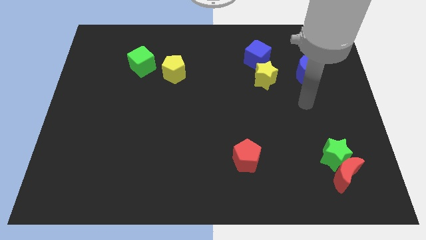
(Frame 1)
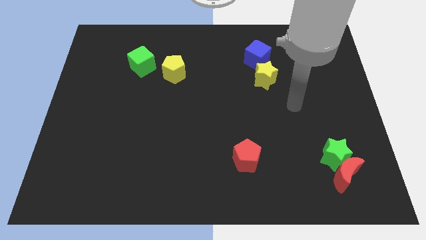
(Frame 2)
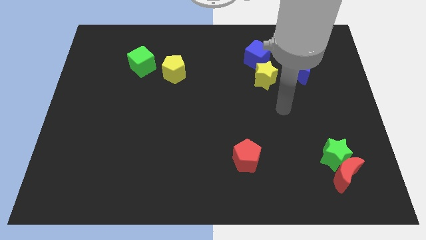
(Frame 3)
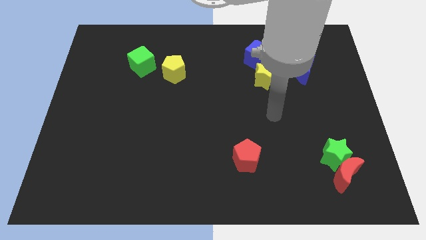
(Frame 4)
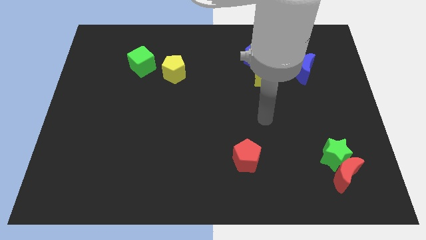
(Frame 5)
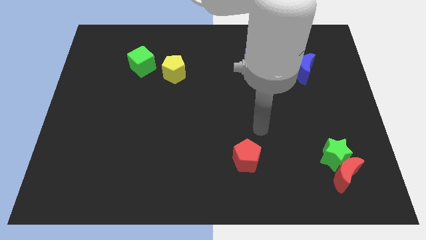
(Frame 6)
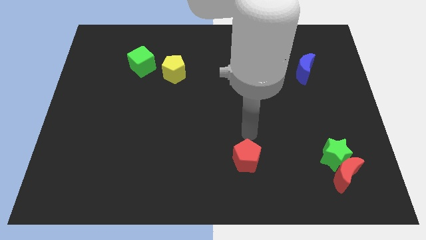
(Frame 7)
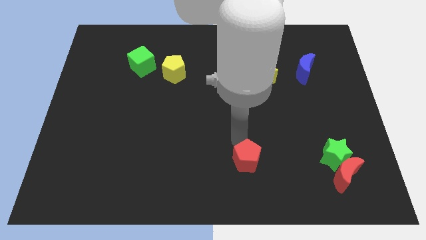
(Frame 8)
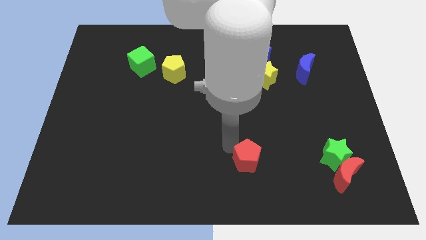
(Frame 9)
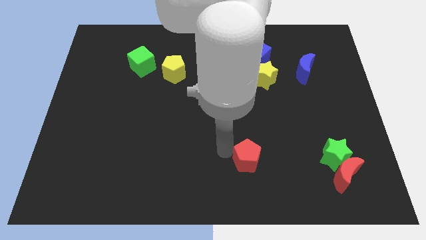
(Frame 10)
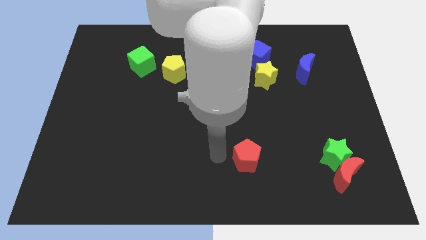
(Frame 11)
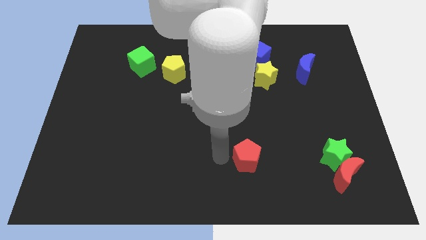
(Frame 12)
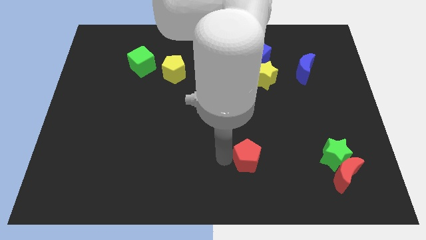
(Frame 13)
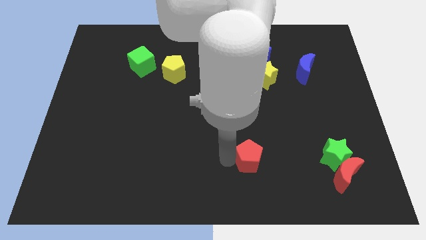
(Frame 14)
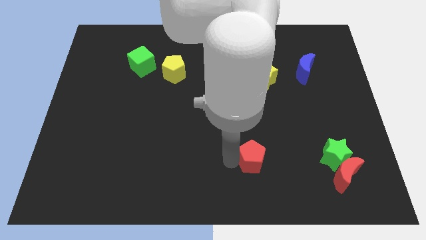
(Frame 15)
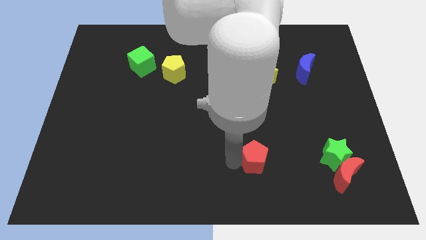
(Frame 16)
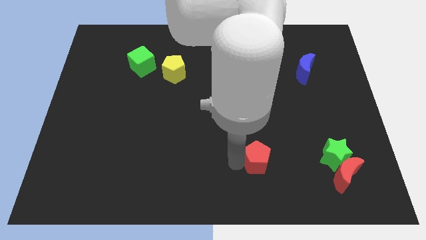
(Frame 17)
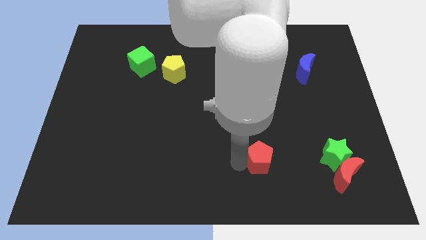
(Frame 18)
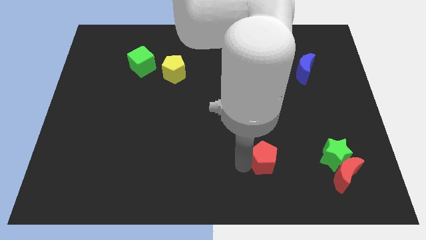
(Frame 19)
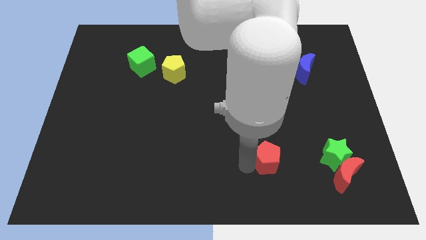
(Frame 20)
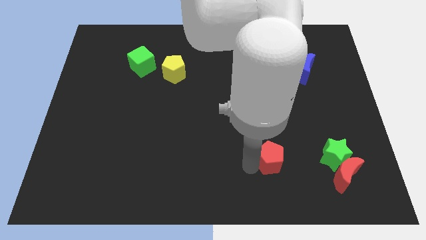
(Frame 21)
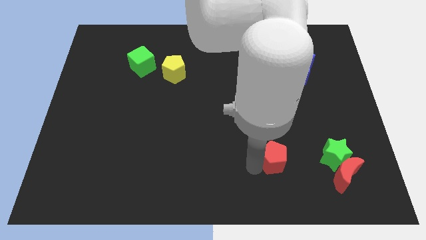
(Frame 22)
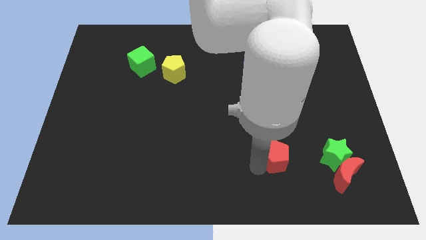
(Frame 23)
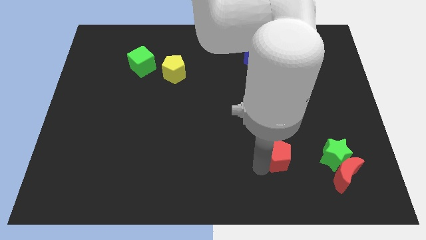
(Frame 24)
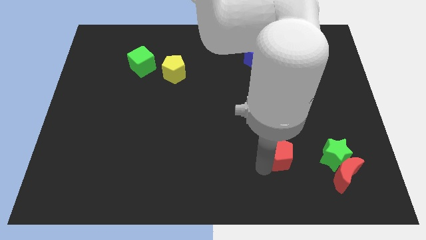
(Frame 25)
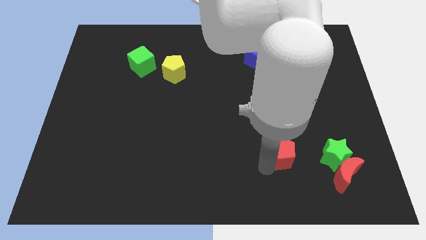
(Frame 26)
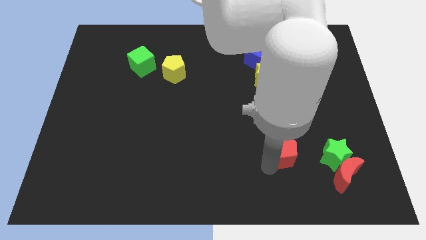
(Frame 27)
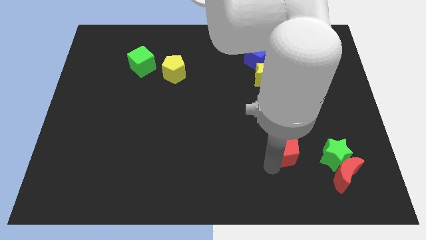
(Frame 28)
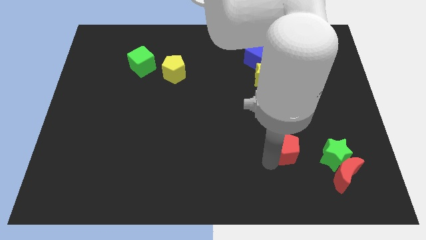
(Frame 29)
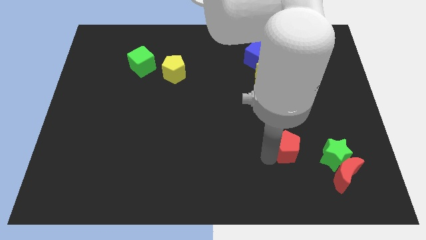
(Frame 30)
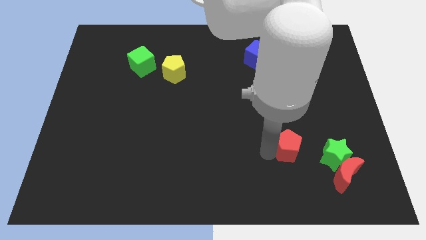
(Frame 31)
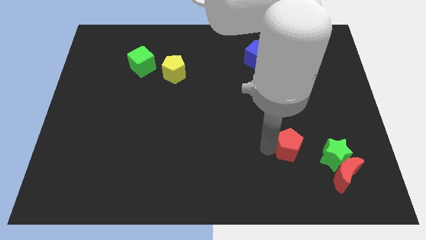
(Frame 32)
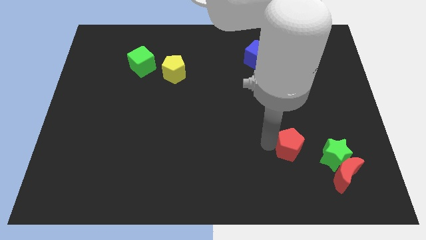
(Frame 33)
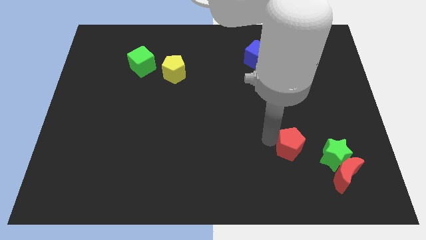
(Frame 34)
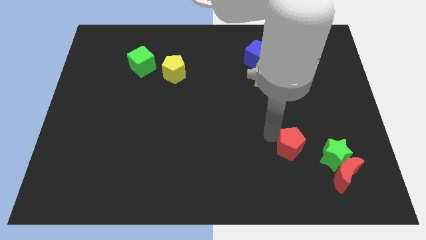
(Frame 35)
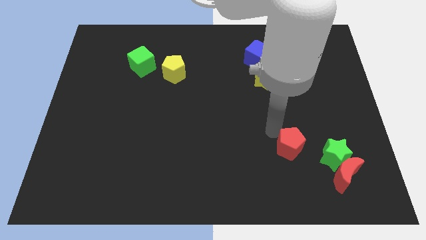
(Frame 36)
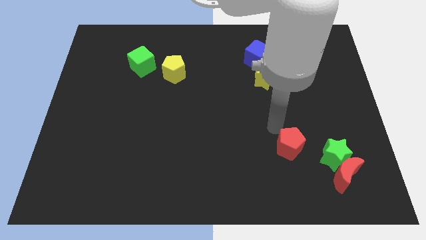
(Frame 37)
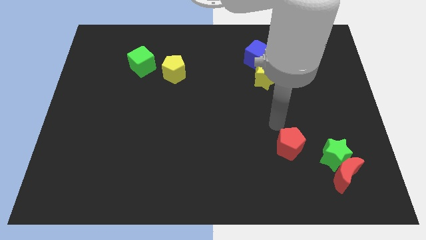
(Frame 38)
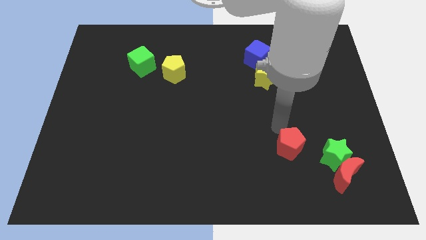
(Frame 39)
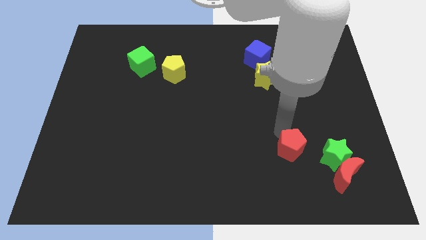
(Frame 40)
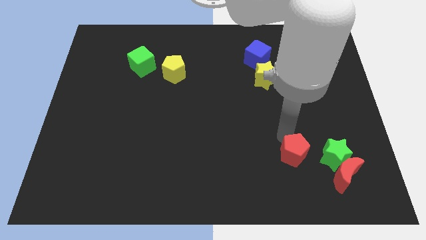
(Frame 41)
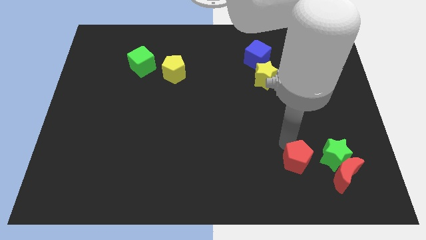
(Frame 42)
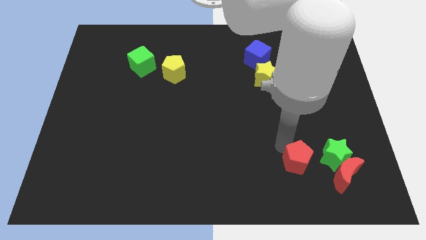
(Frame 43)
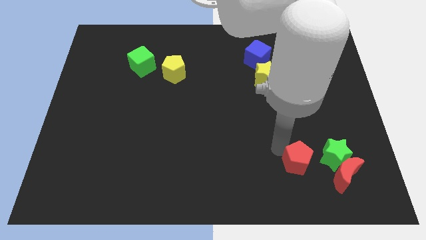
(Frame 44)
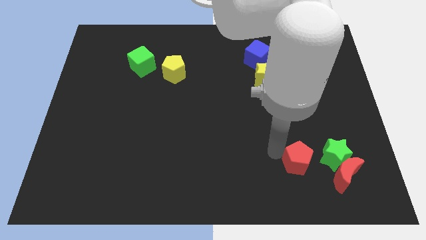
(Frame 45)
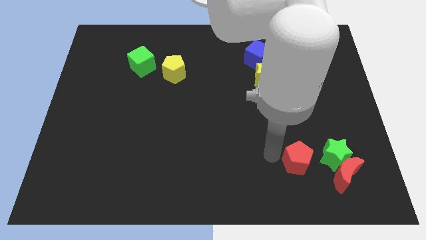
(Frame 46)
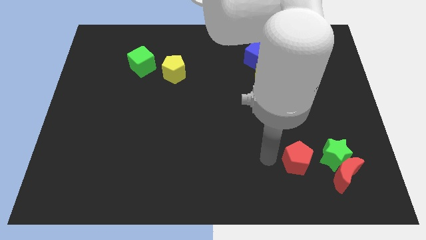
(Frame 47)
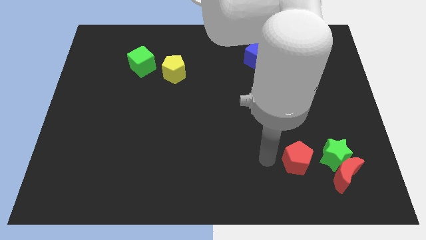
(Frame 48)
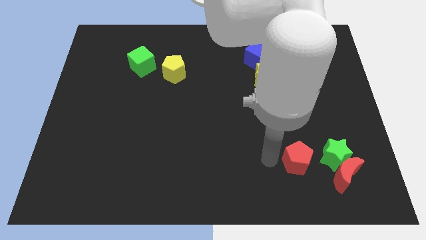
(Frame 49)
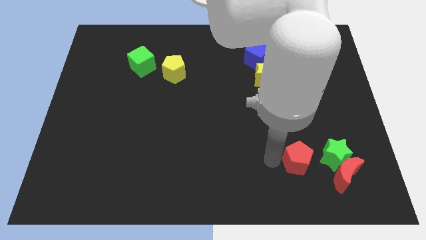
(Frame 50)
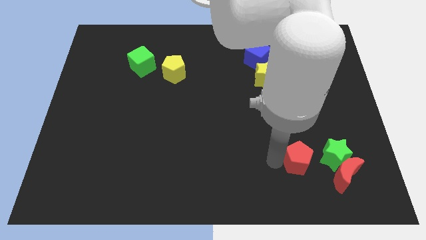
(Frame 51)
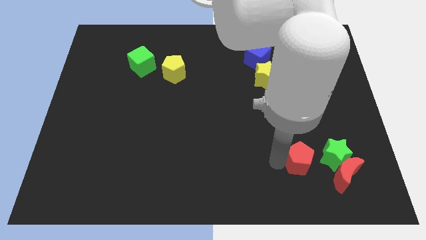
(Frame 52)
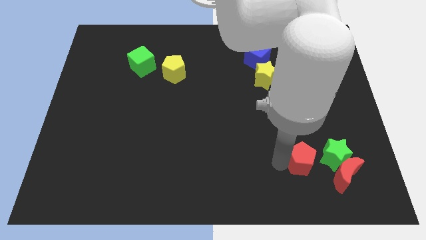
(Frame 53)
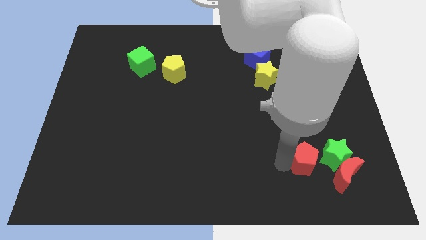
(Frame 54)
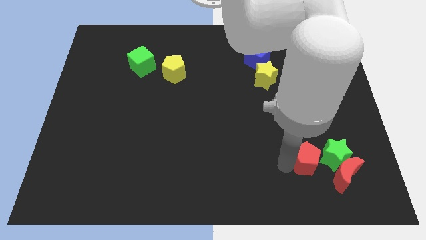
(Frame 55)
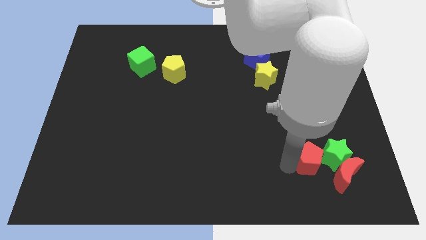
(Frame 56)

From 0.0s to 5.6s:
put the red pentagon next to the green star
